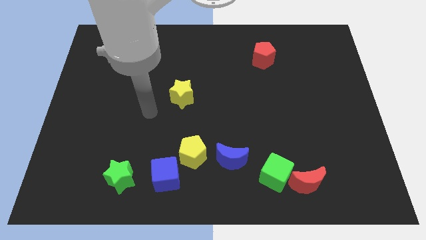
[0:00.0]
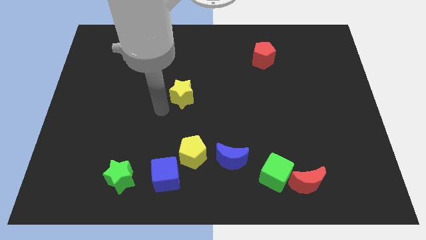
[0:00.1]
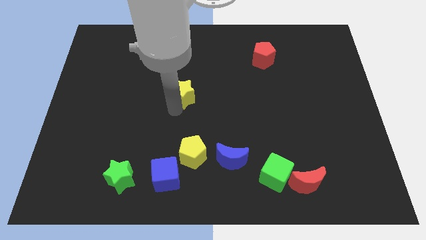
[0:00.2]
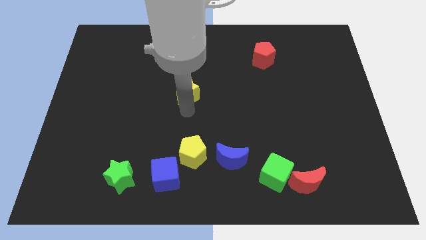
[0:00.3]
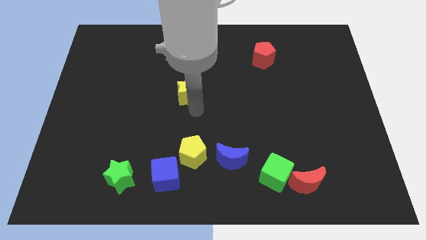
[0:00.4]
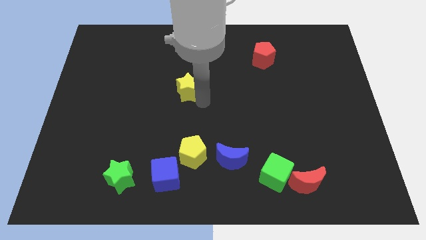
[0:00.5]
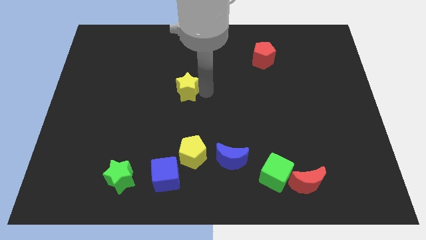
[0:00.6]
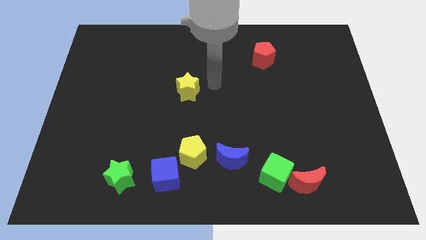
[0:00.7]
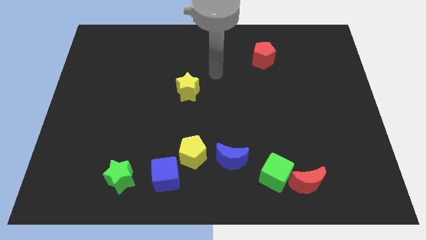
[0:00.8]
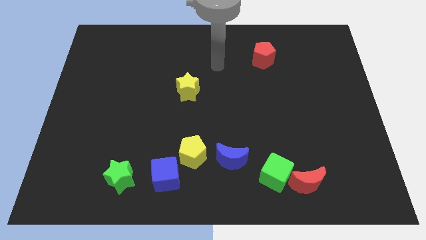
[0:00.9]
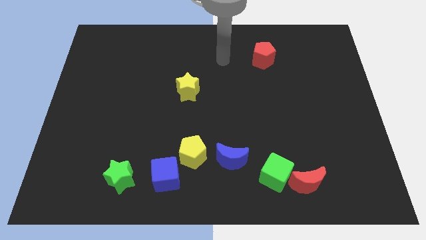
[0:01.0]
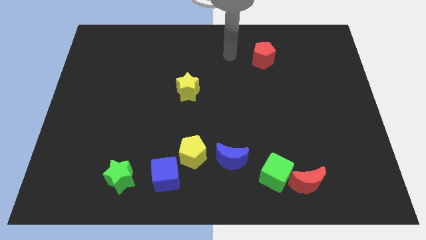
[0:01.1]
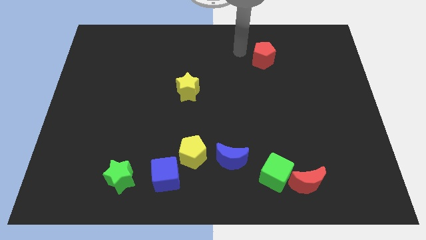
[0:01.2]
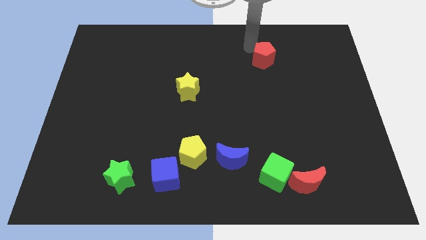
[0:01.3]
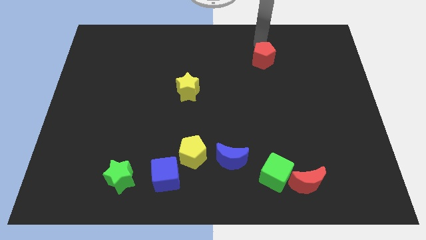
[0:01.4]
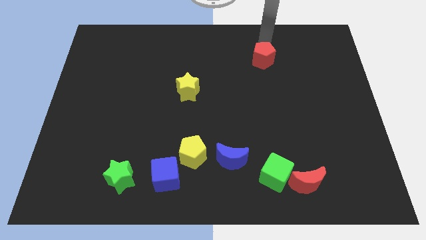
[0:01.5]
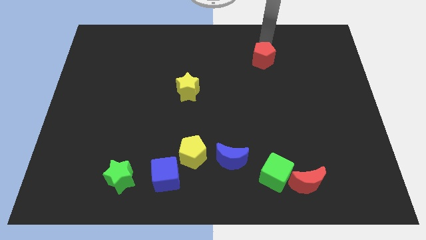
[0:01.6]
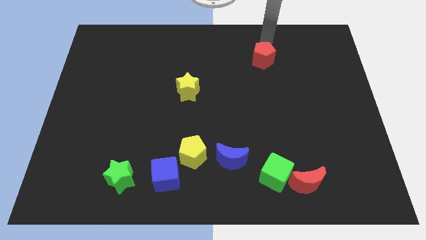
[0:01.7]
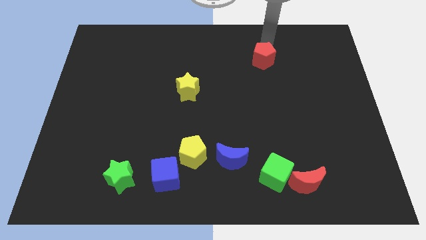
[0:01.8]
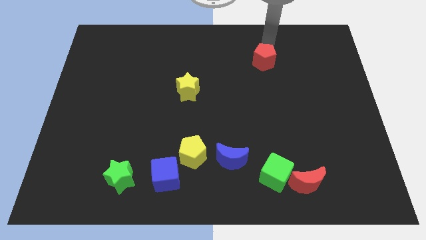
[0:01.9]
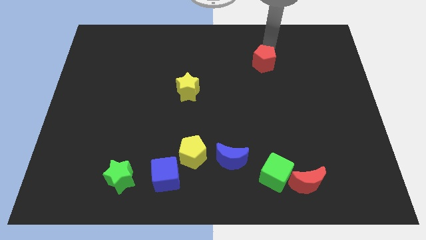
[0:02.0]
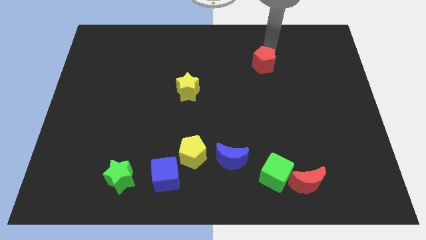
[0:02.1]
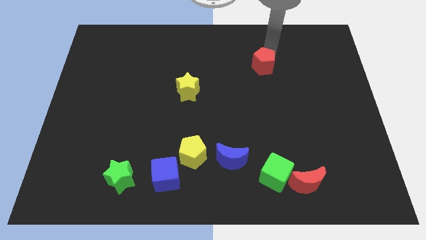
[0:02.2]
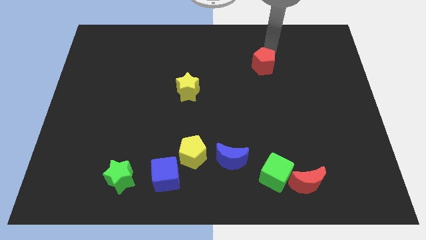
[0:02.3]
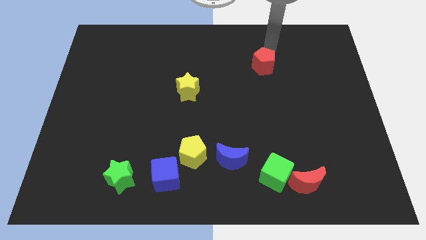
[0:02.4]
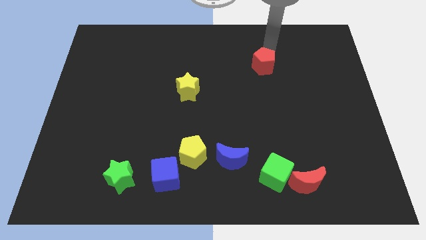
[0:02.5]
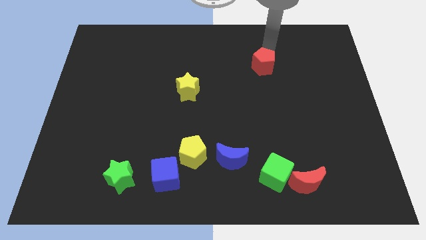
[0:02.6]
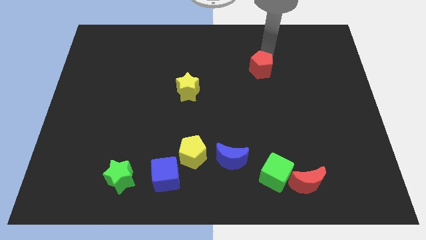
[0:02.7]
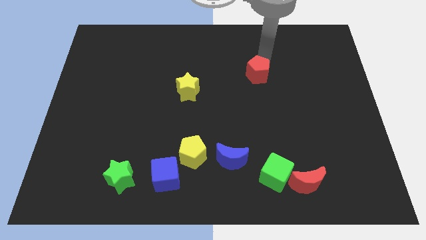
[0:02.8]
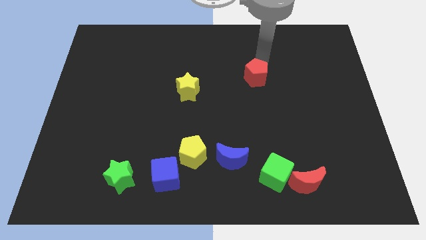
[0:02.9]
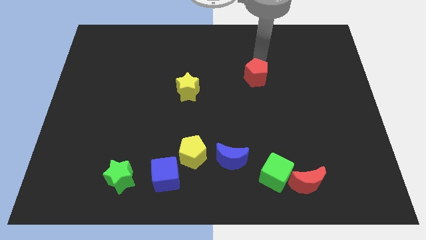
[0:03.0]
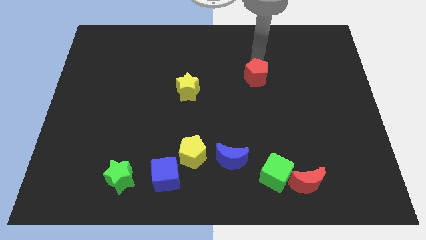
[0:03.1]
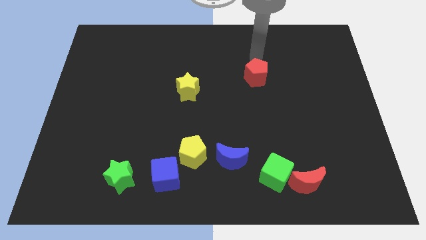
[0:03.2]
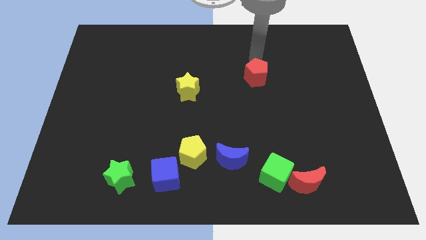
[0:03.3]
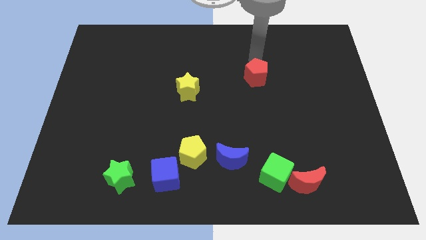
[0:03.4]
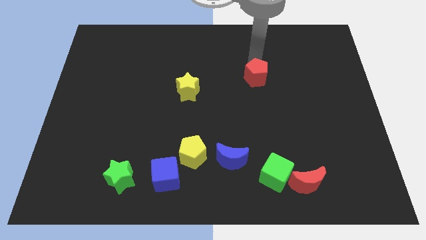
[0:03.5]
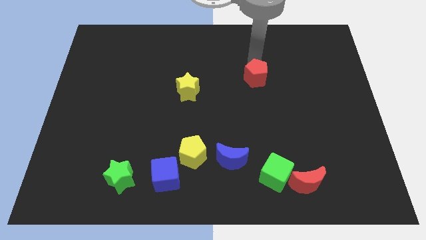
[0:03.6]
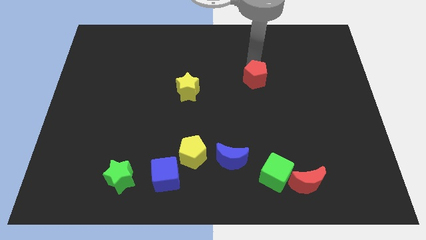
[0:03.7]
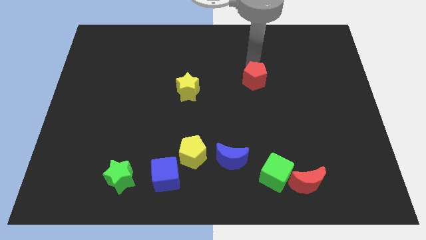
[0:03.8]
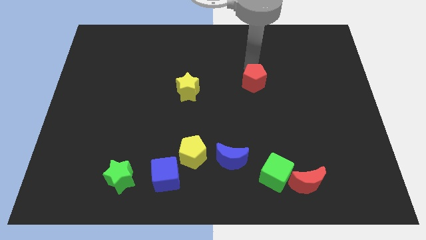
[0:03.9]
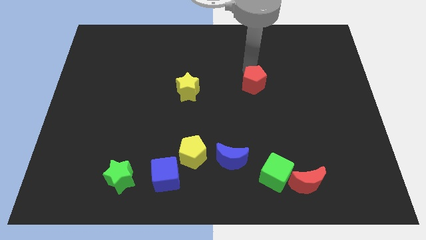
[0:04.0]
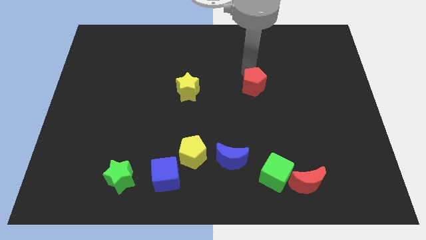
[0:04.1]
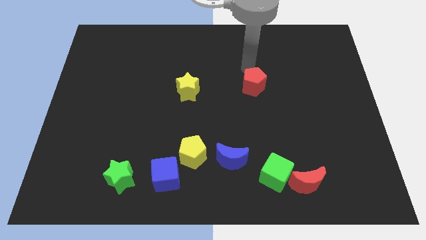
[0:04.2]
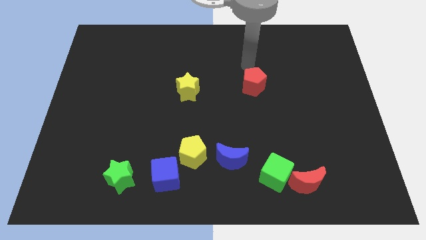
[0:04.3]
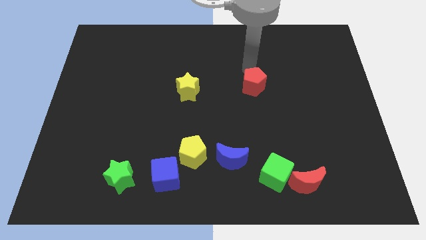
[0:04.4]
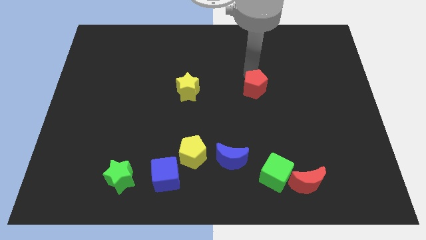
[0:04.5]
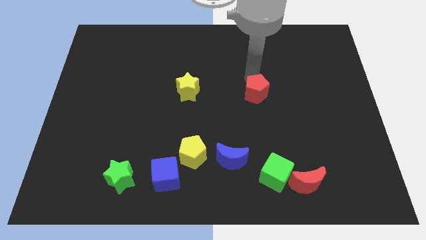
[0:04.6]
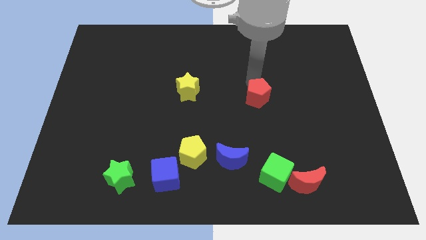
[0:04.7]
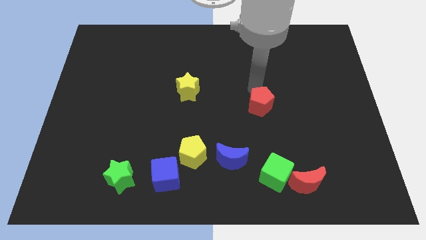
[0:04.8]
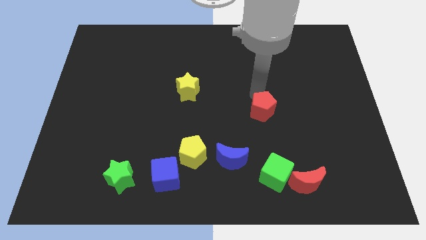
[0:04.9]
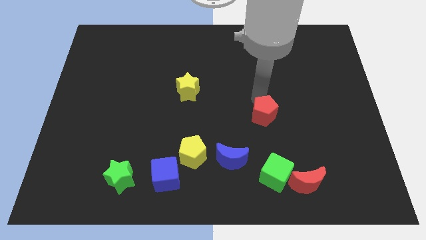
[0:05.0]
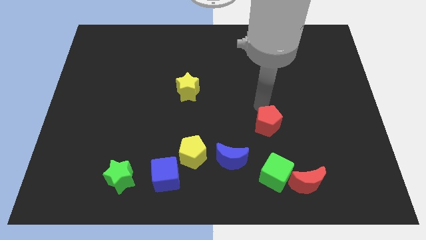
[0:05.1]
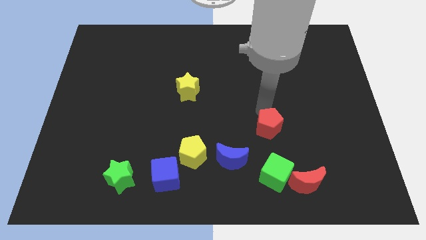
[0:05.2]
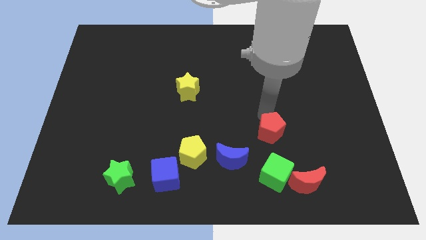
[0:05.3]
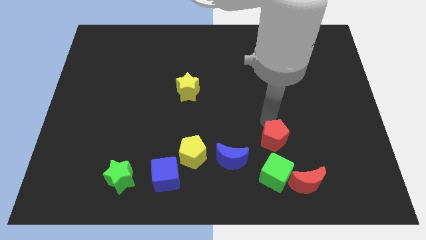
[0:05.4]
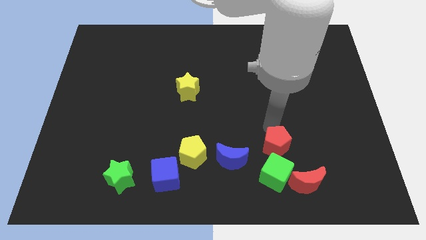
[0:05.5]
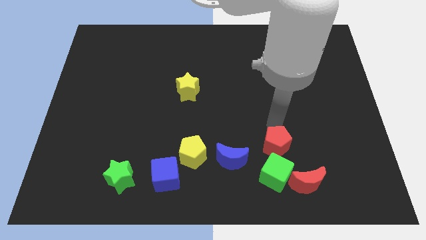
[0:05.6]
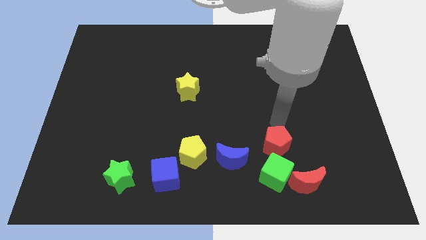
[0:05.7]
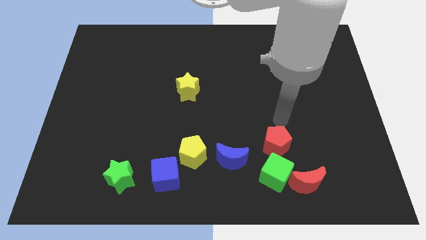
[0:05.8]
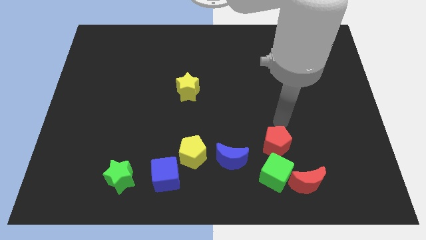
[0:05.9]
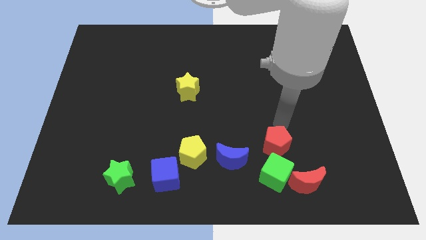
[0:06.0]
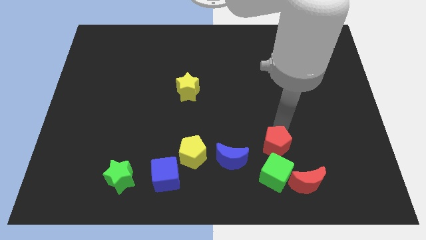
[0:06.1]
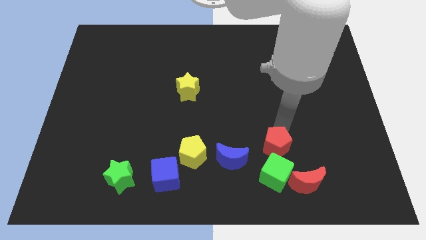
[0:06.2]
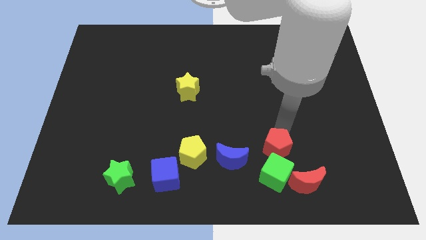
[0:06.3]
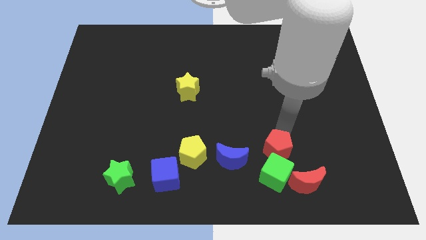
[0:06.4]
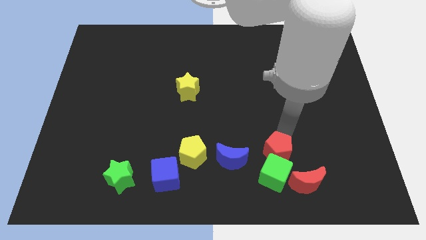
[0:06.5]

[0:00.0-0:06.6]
slide the red pentagon close to the green cube

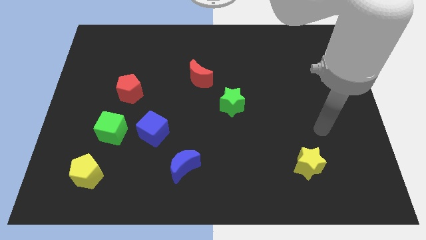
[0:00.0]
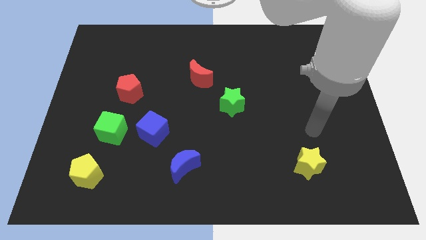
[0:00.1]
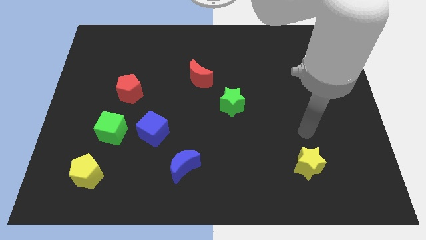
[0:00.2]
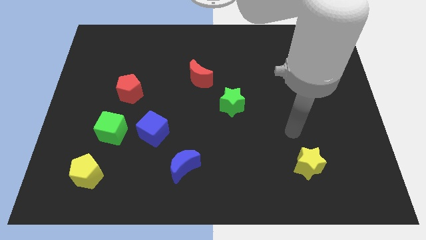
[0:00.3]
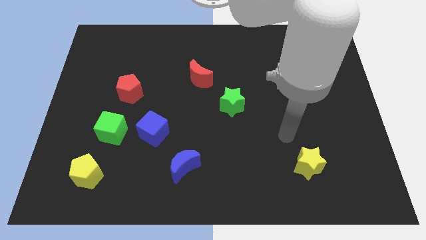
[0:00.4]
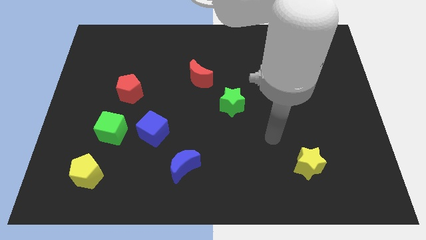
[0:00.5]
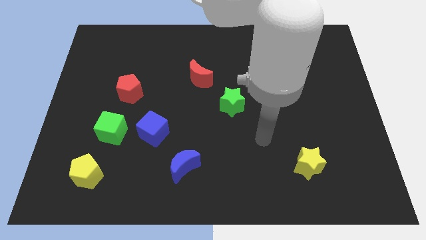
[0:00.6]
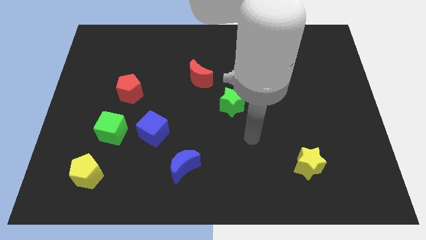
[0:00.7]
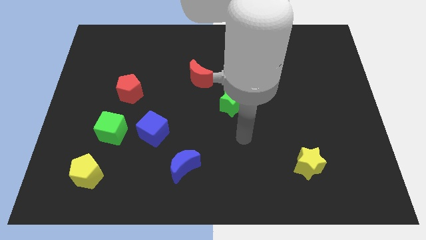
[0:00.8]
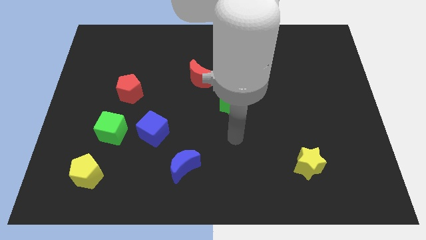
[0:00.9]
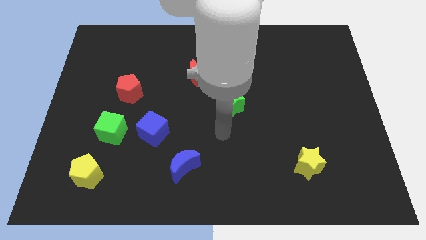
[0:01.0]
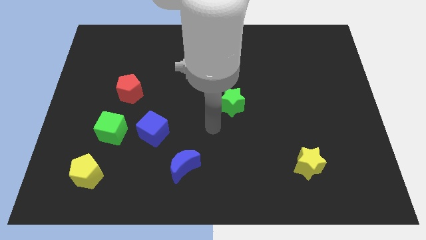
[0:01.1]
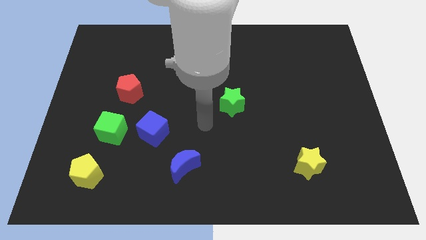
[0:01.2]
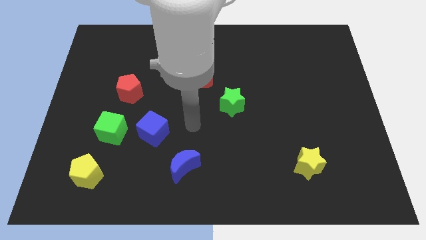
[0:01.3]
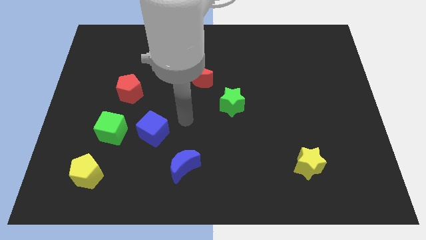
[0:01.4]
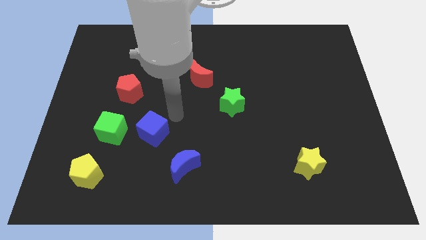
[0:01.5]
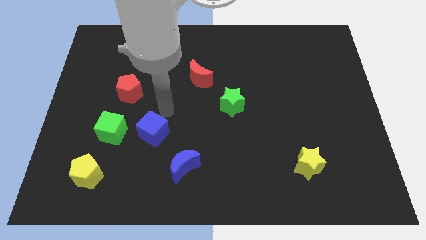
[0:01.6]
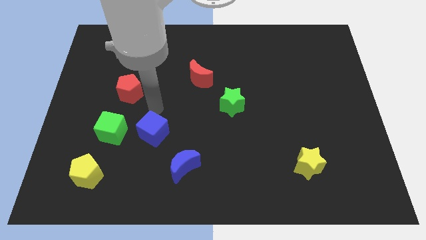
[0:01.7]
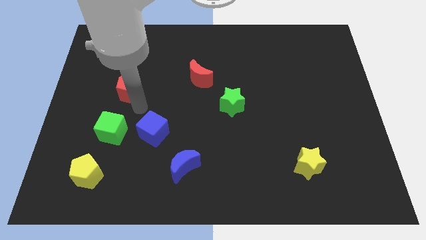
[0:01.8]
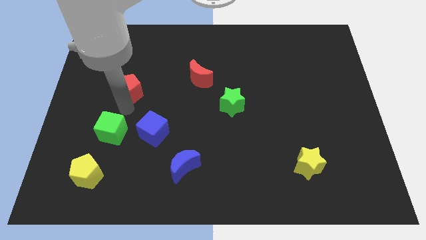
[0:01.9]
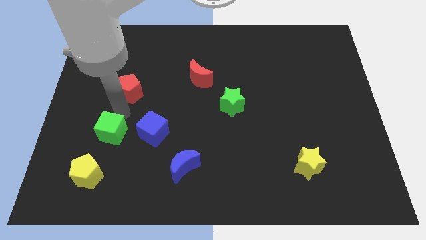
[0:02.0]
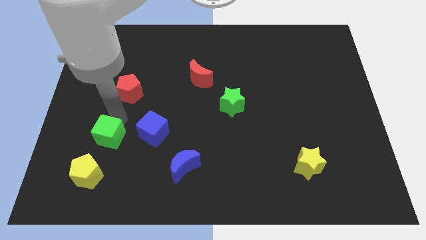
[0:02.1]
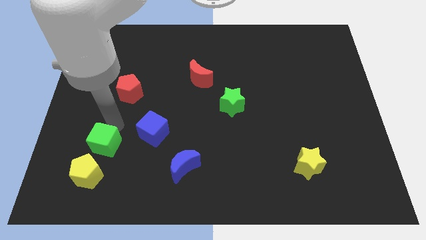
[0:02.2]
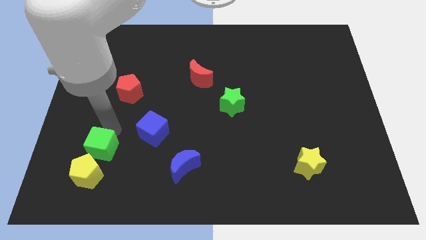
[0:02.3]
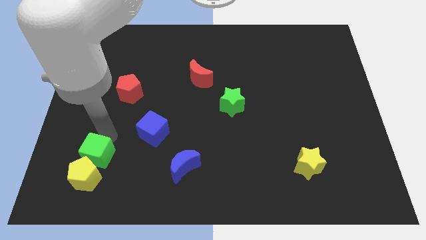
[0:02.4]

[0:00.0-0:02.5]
slide the green cube next to the yellow pentagon
